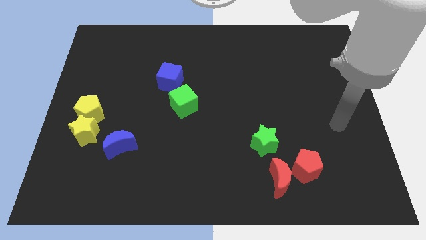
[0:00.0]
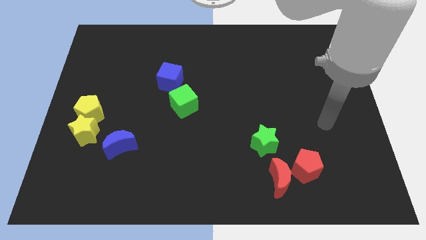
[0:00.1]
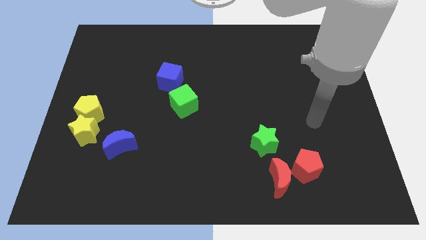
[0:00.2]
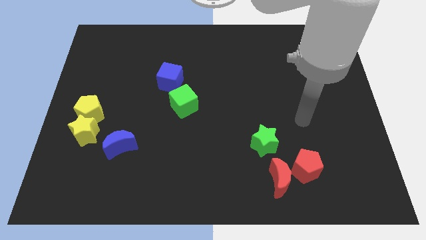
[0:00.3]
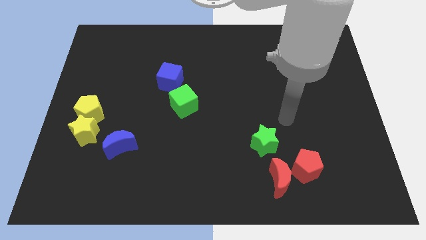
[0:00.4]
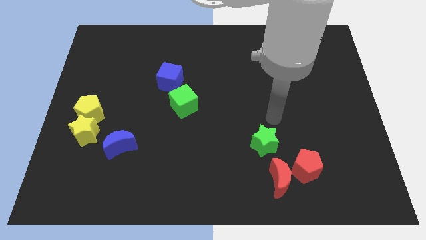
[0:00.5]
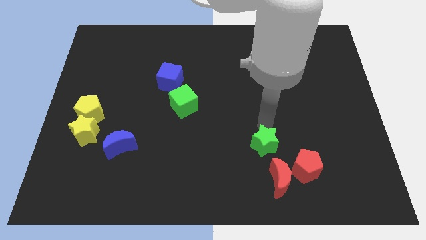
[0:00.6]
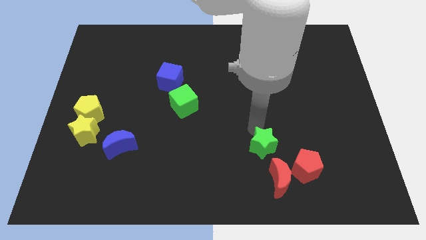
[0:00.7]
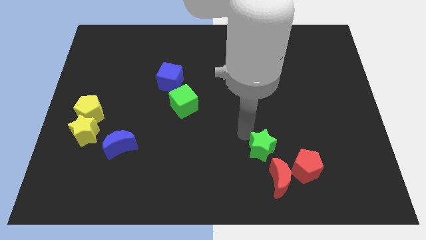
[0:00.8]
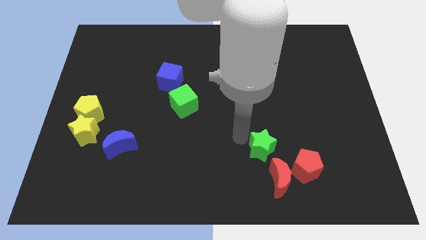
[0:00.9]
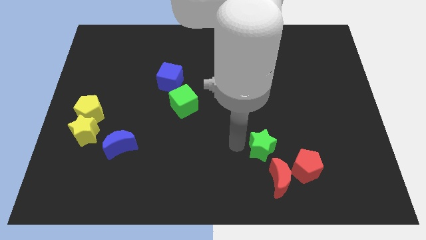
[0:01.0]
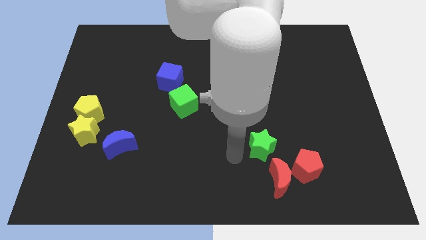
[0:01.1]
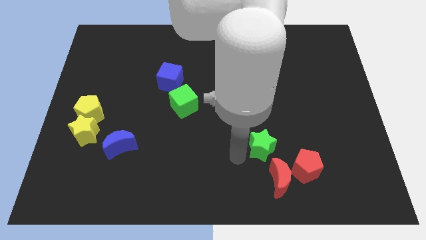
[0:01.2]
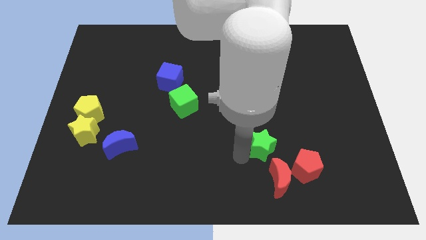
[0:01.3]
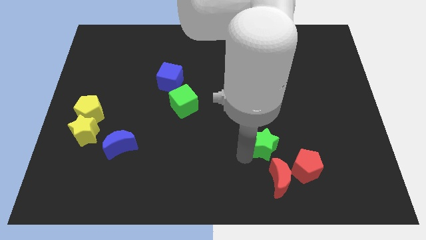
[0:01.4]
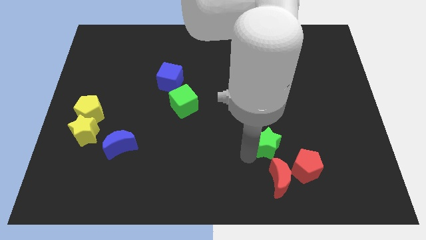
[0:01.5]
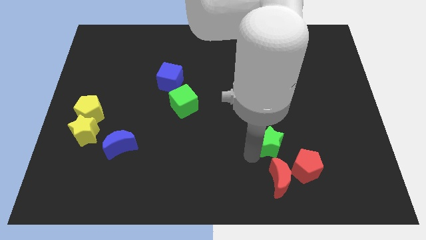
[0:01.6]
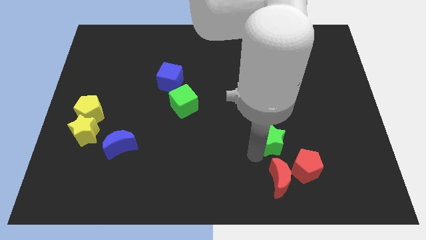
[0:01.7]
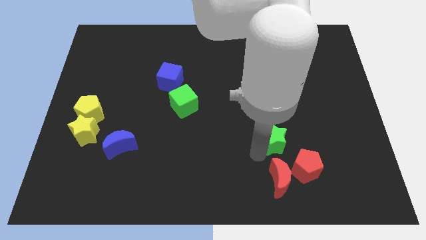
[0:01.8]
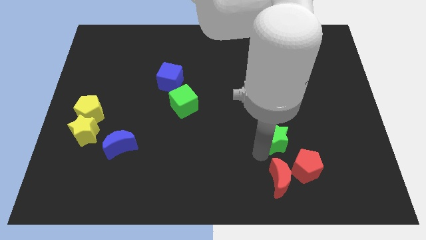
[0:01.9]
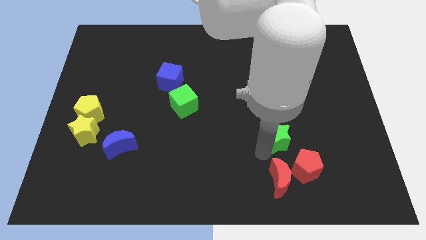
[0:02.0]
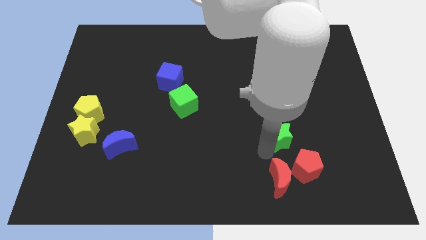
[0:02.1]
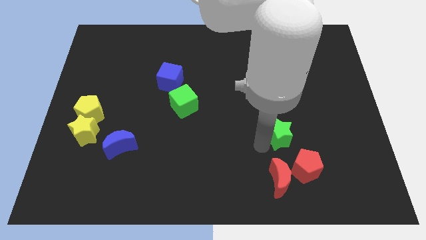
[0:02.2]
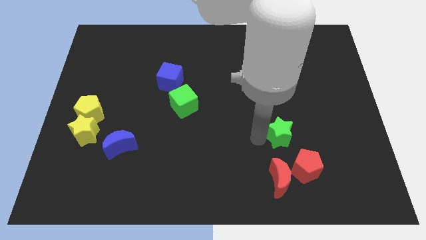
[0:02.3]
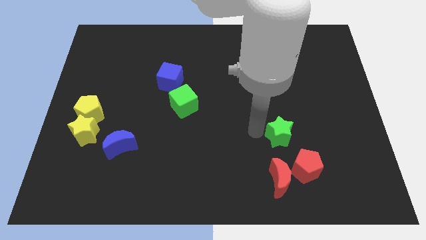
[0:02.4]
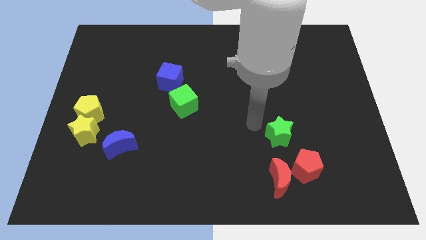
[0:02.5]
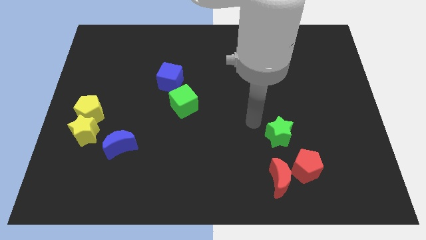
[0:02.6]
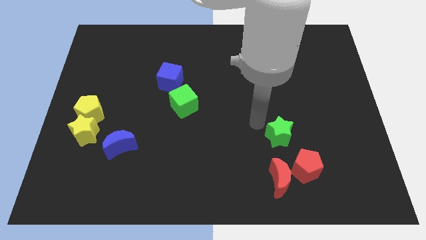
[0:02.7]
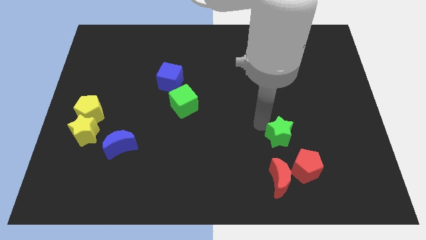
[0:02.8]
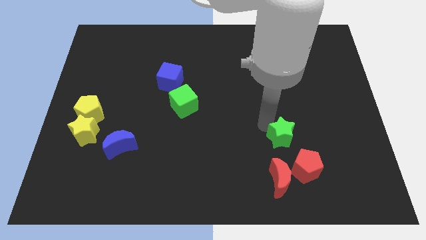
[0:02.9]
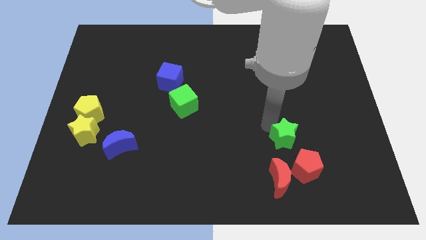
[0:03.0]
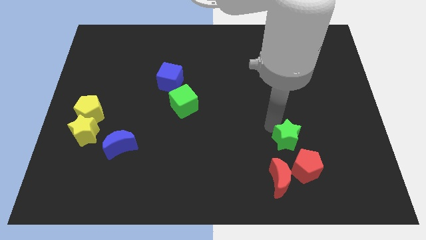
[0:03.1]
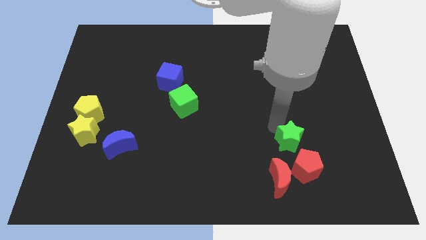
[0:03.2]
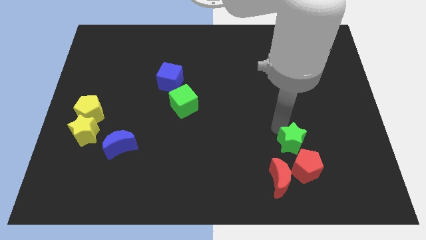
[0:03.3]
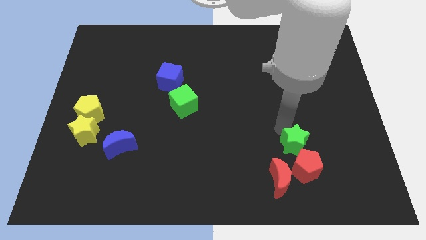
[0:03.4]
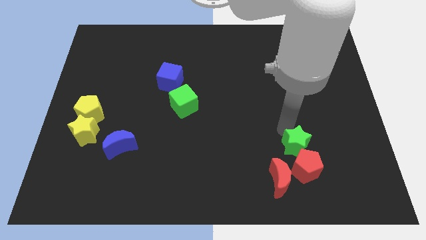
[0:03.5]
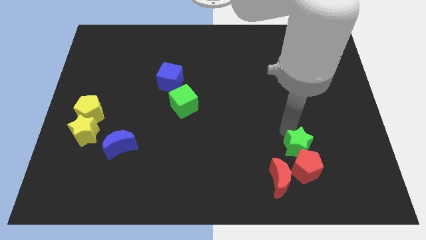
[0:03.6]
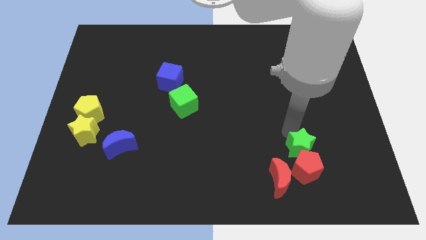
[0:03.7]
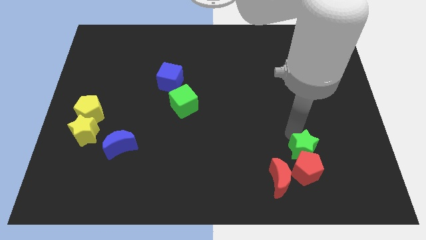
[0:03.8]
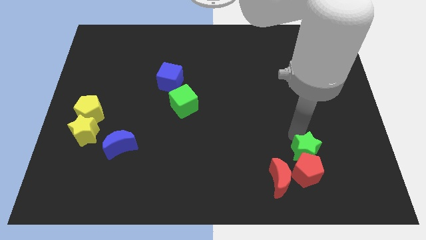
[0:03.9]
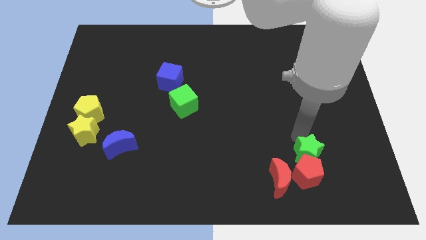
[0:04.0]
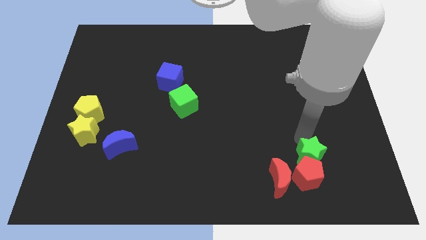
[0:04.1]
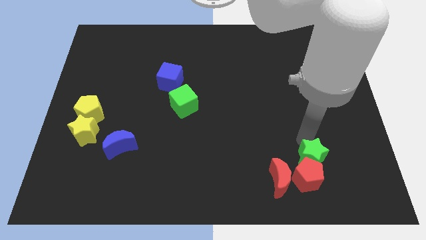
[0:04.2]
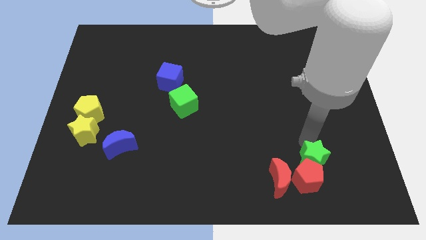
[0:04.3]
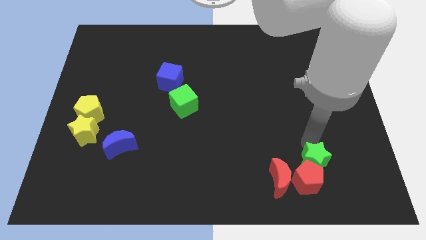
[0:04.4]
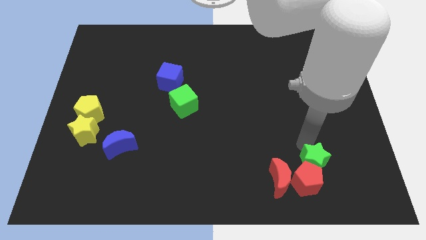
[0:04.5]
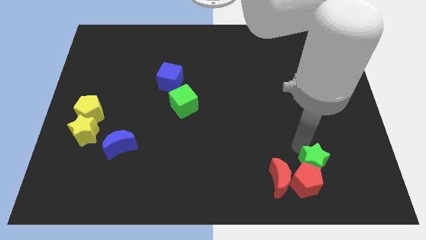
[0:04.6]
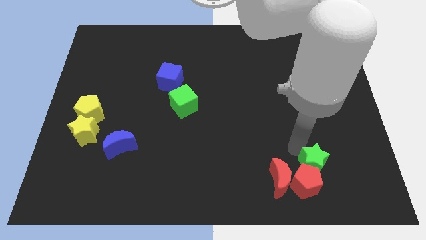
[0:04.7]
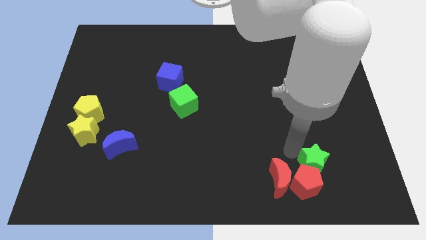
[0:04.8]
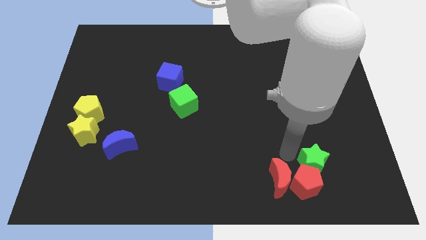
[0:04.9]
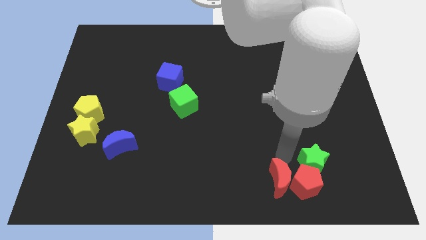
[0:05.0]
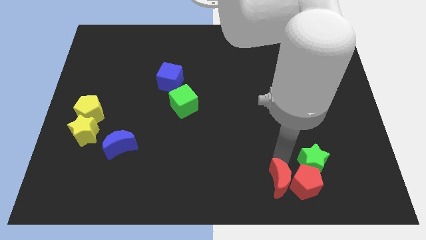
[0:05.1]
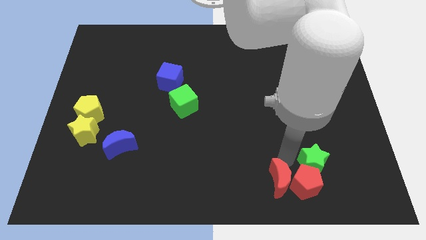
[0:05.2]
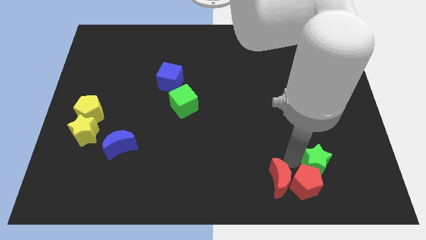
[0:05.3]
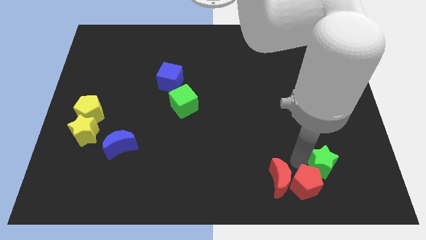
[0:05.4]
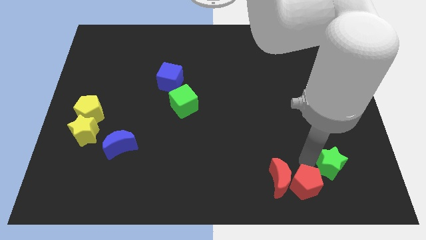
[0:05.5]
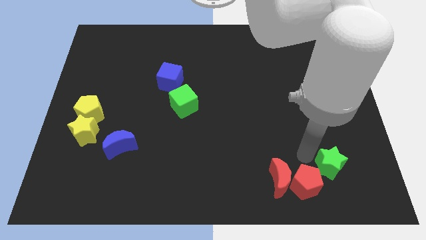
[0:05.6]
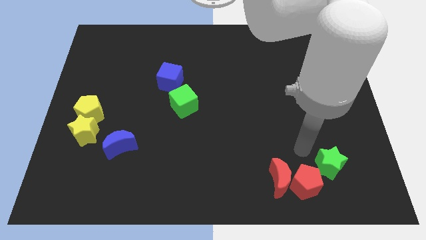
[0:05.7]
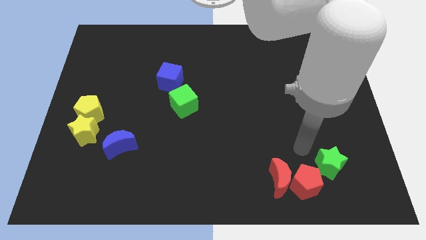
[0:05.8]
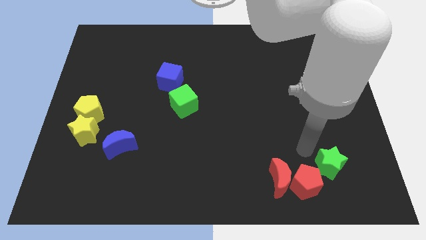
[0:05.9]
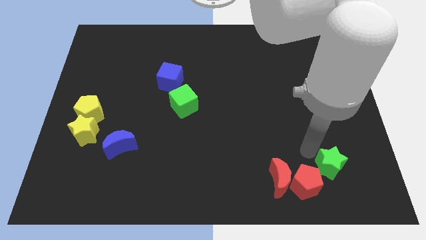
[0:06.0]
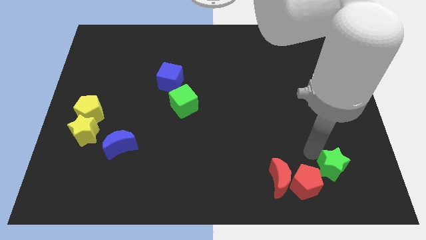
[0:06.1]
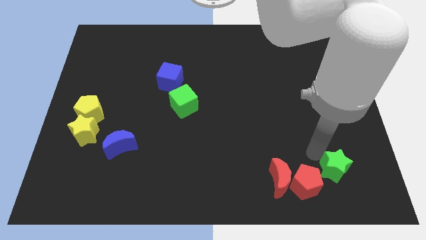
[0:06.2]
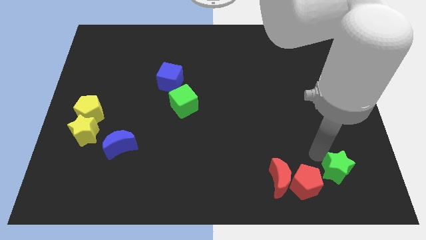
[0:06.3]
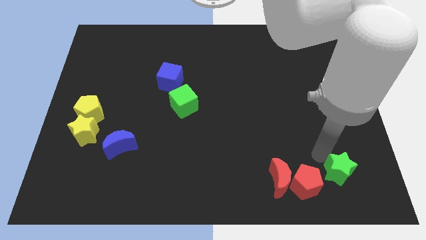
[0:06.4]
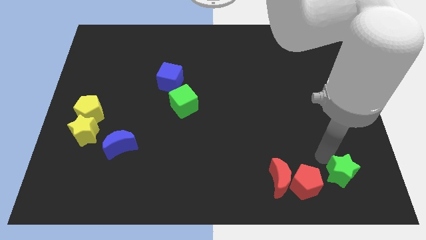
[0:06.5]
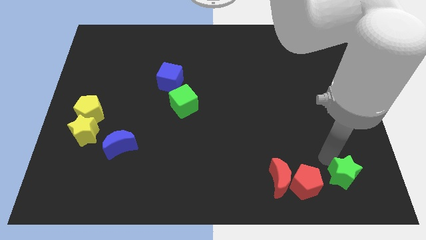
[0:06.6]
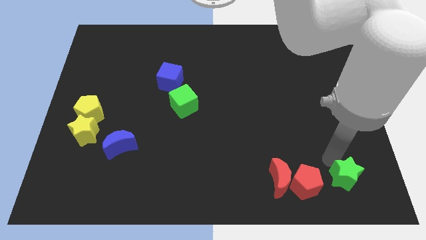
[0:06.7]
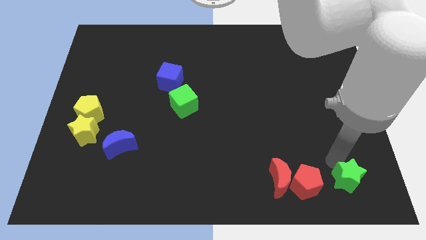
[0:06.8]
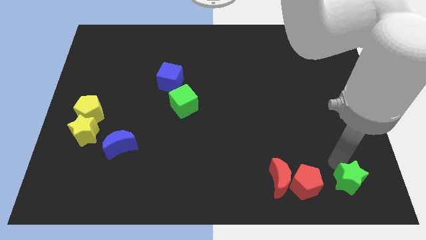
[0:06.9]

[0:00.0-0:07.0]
put the green star to the bottom right
